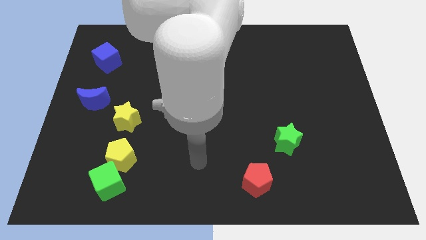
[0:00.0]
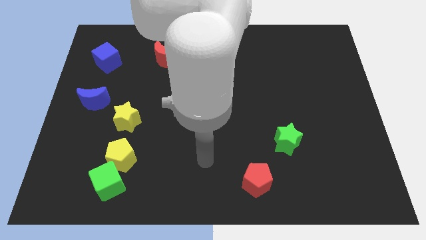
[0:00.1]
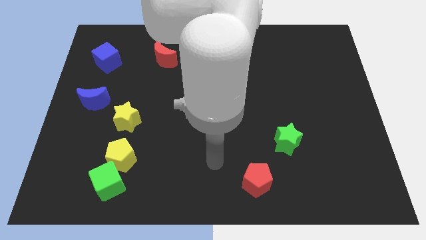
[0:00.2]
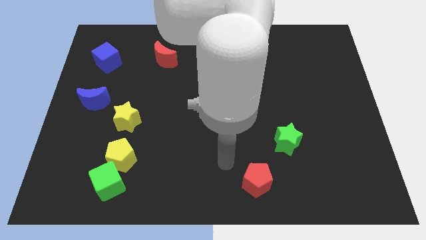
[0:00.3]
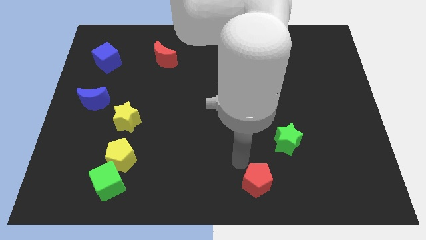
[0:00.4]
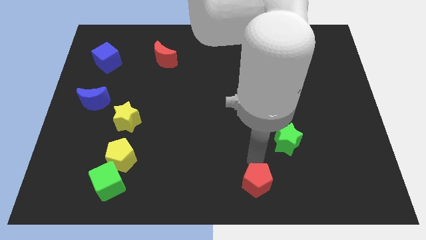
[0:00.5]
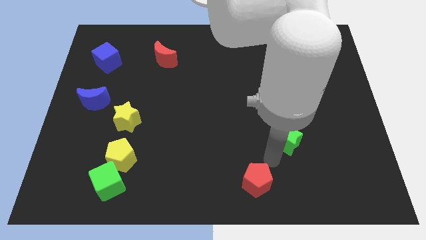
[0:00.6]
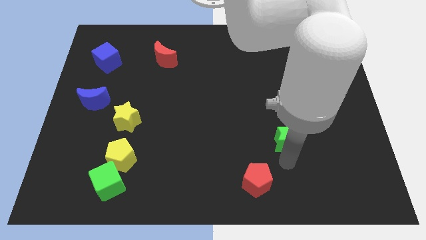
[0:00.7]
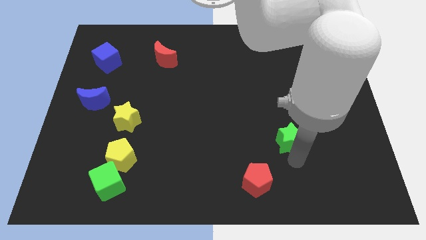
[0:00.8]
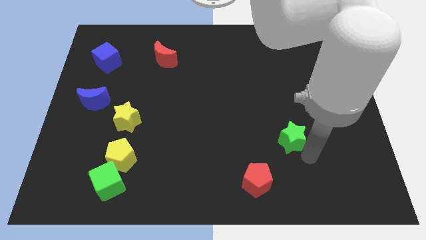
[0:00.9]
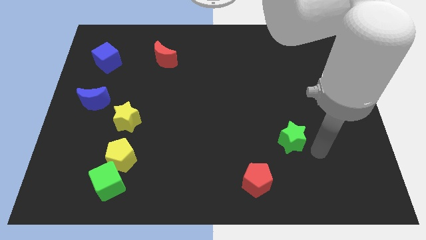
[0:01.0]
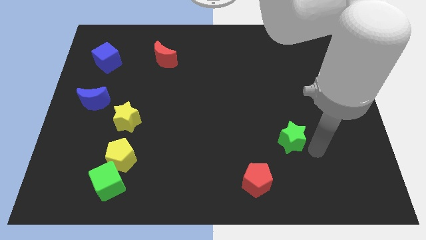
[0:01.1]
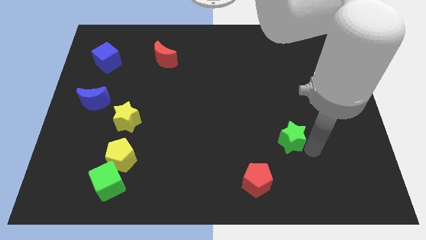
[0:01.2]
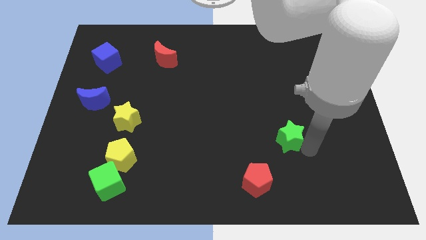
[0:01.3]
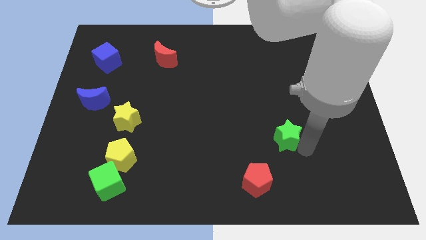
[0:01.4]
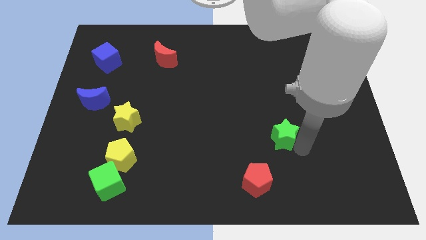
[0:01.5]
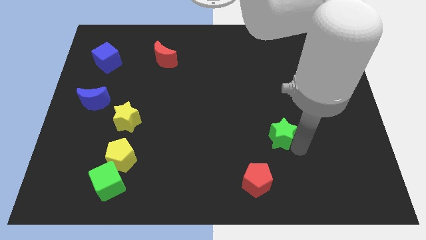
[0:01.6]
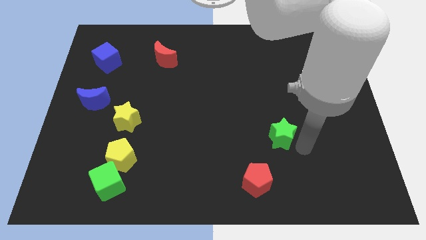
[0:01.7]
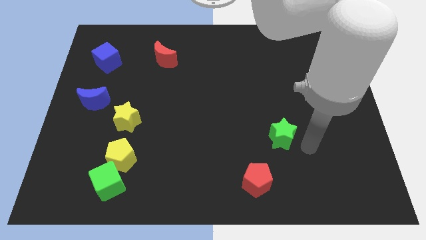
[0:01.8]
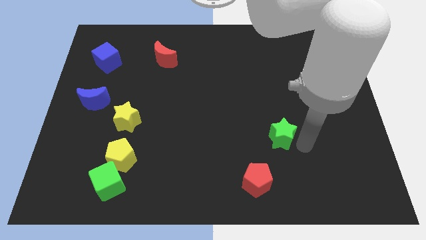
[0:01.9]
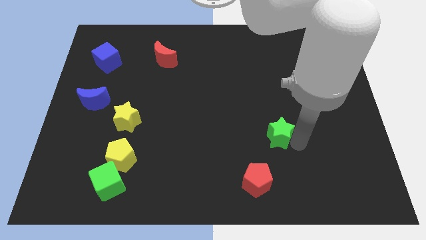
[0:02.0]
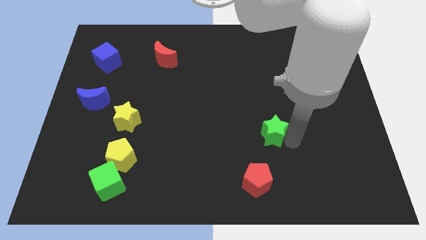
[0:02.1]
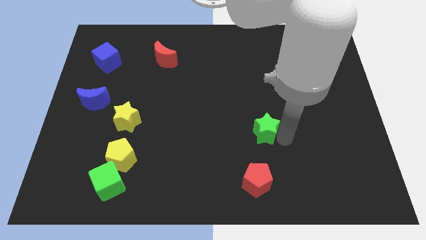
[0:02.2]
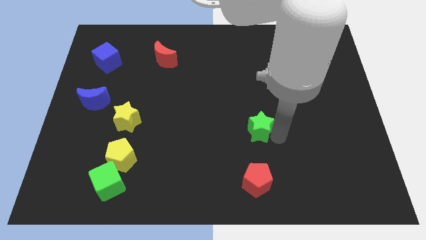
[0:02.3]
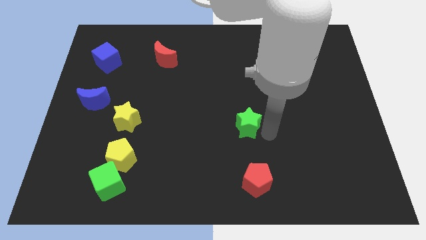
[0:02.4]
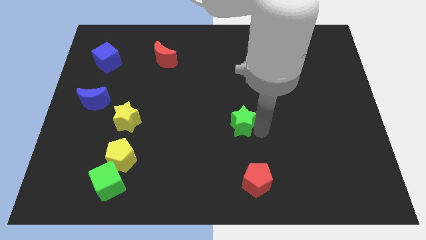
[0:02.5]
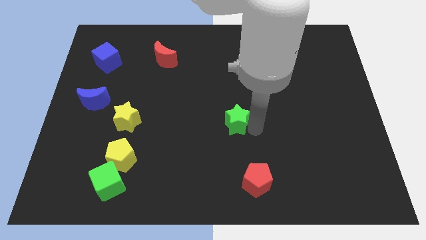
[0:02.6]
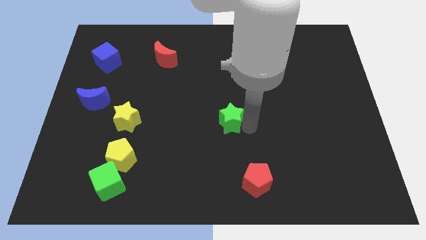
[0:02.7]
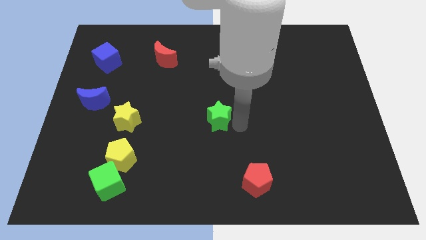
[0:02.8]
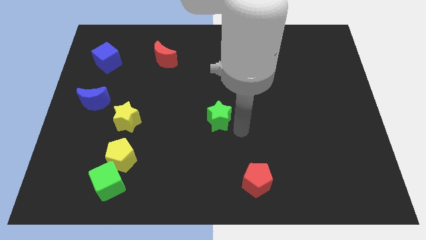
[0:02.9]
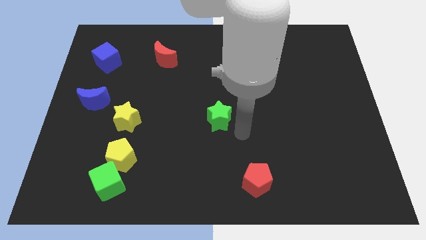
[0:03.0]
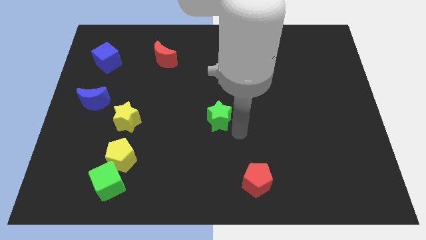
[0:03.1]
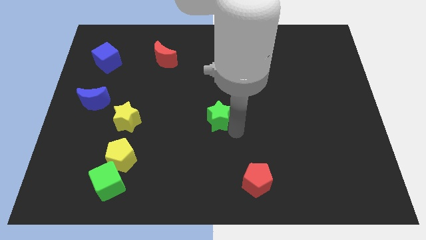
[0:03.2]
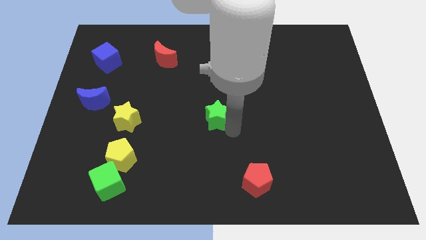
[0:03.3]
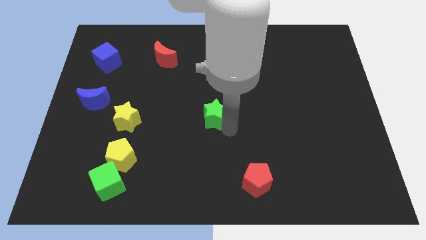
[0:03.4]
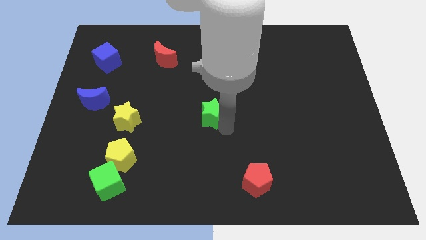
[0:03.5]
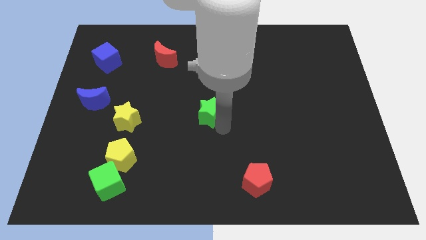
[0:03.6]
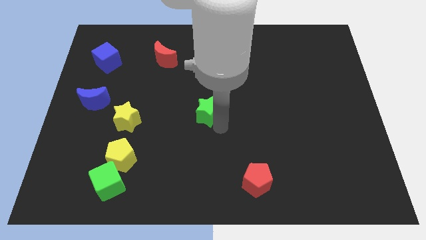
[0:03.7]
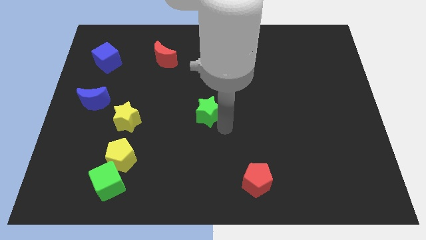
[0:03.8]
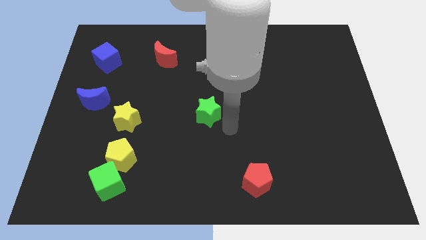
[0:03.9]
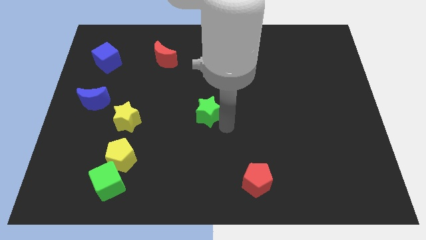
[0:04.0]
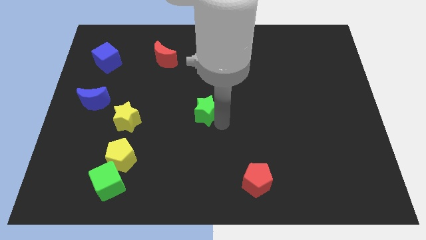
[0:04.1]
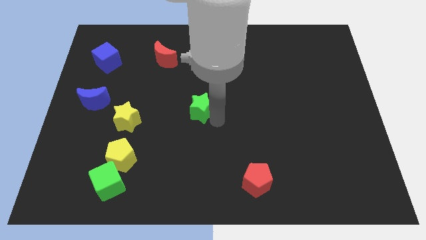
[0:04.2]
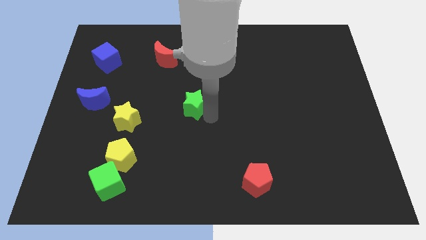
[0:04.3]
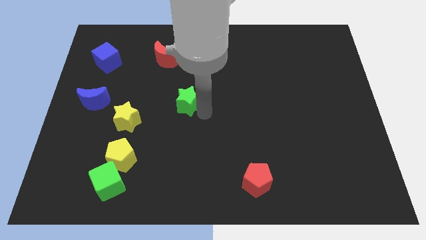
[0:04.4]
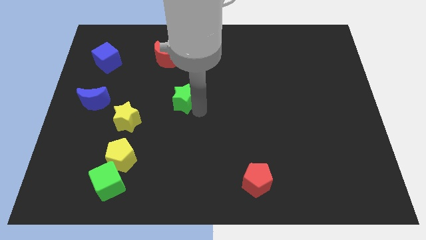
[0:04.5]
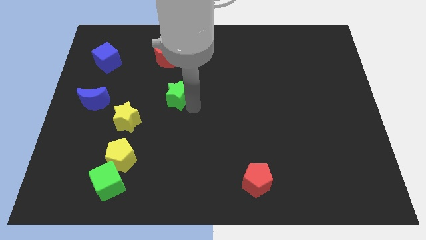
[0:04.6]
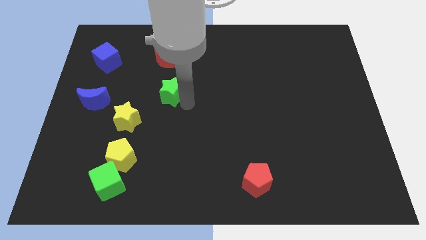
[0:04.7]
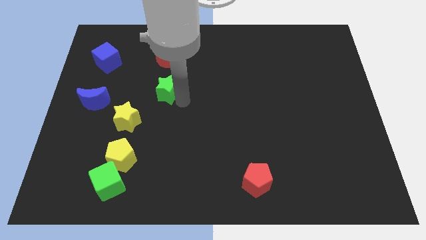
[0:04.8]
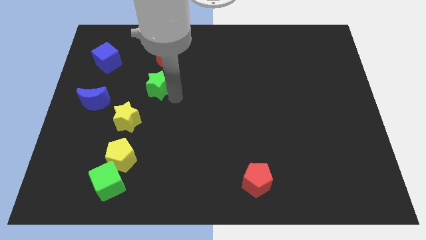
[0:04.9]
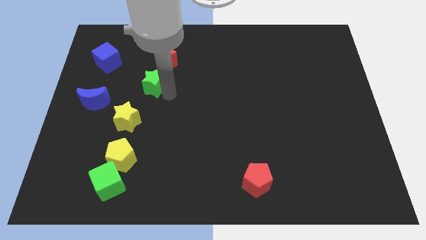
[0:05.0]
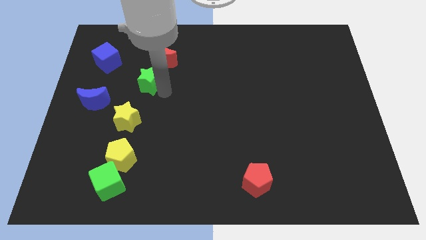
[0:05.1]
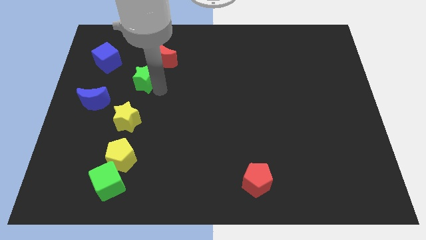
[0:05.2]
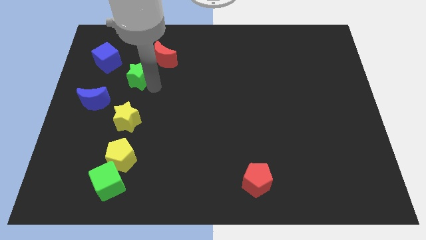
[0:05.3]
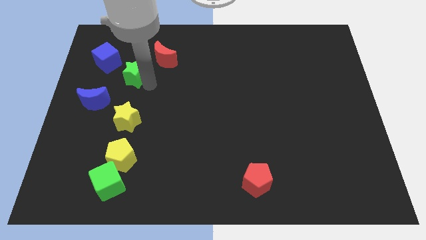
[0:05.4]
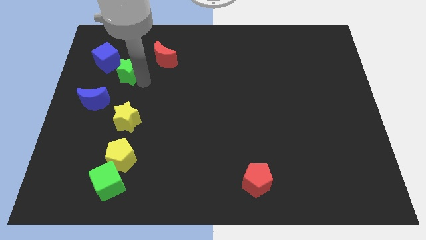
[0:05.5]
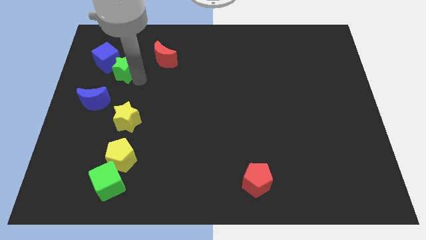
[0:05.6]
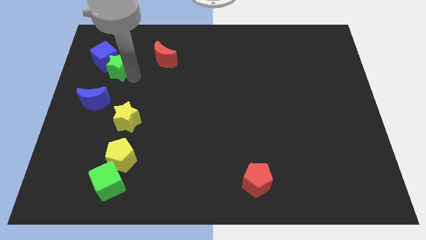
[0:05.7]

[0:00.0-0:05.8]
put the green star next to the blue cube

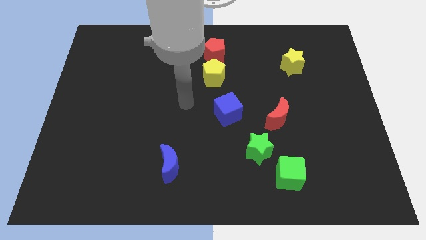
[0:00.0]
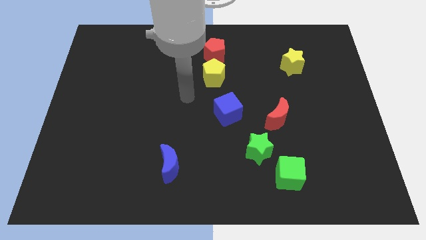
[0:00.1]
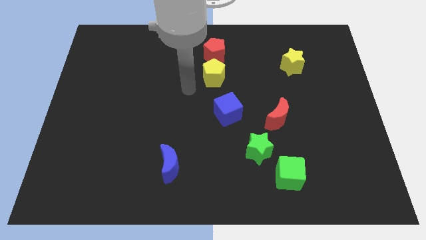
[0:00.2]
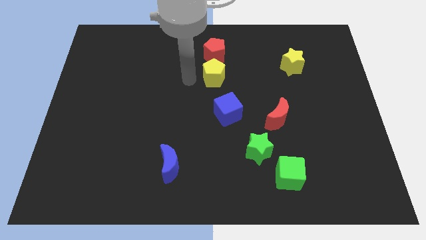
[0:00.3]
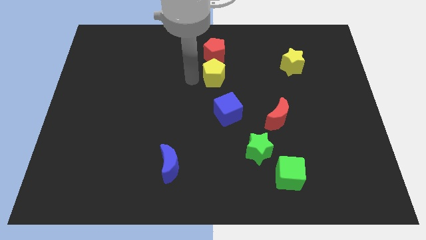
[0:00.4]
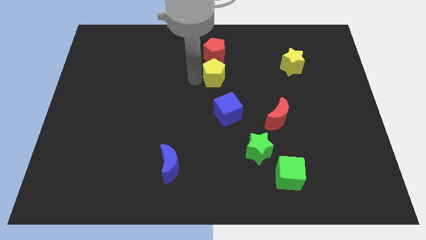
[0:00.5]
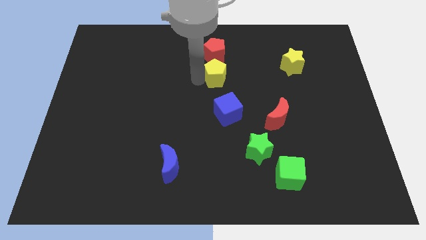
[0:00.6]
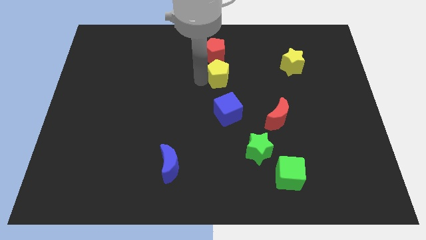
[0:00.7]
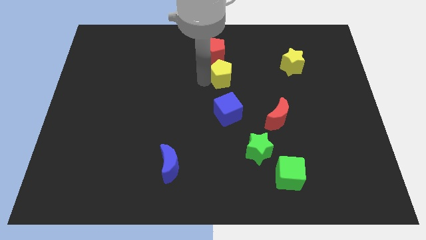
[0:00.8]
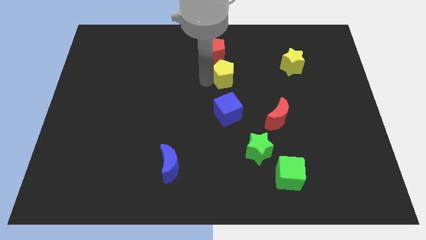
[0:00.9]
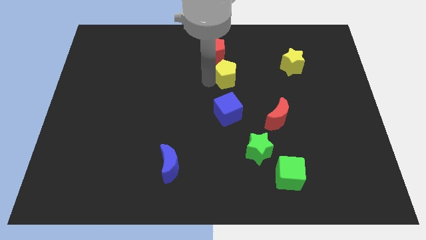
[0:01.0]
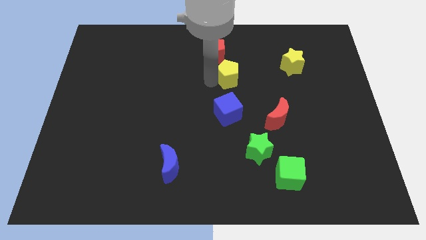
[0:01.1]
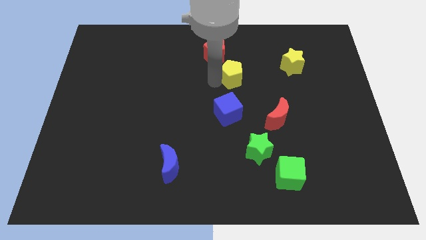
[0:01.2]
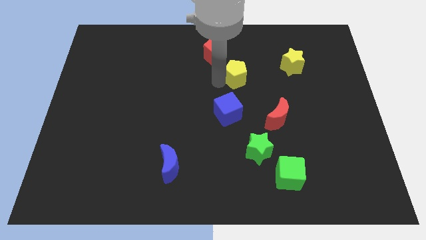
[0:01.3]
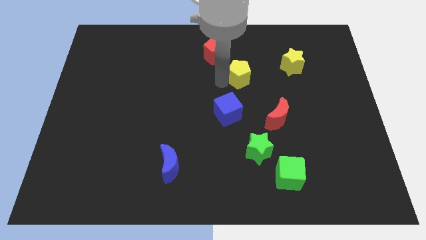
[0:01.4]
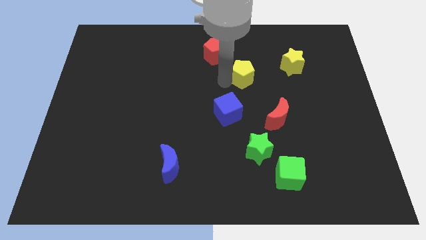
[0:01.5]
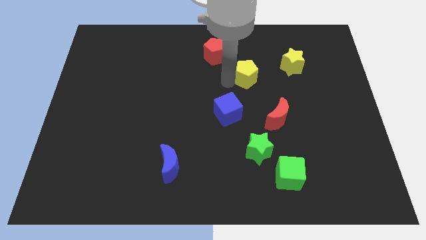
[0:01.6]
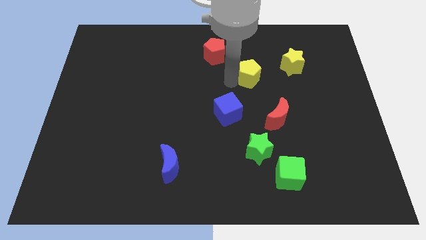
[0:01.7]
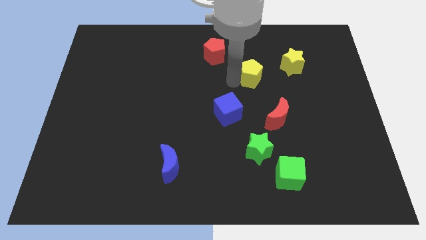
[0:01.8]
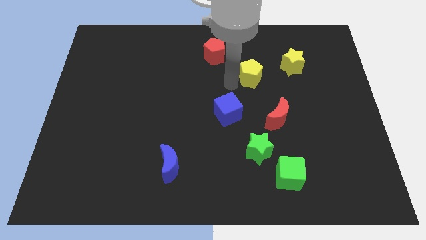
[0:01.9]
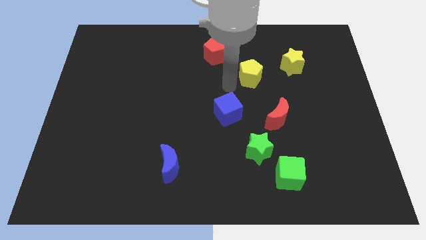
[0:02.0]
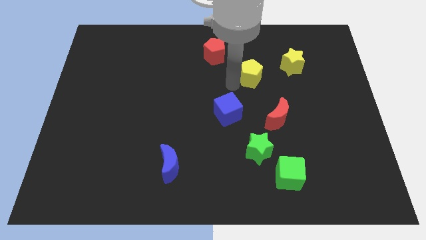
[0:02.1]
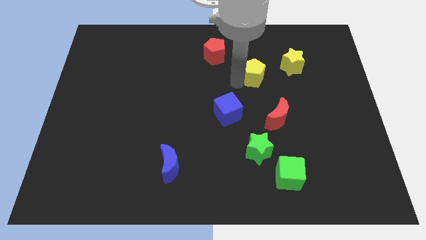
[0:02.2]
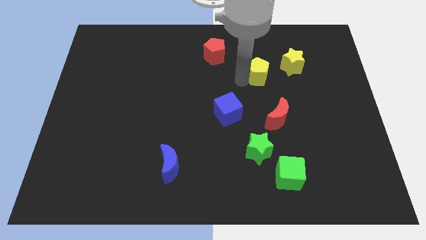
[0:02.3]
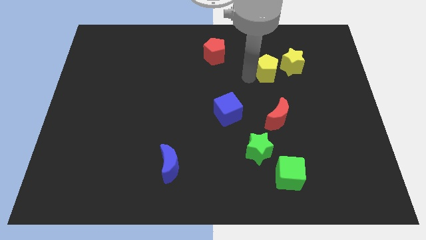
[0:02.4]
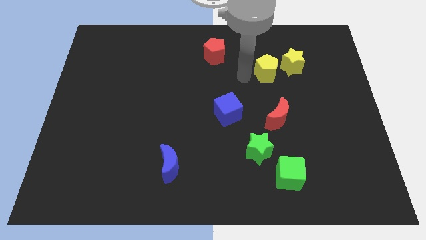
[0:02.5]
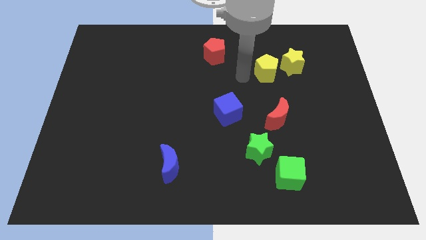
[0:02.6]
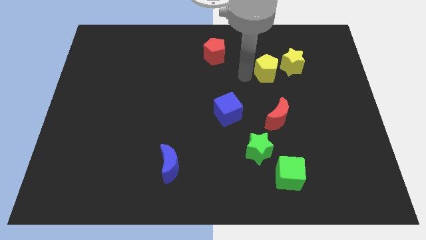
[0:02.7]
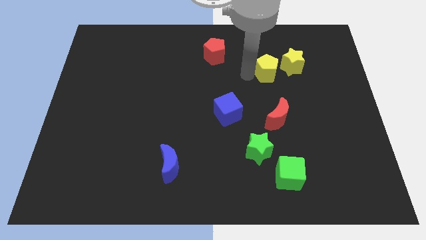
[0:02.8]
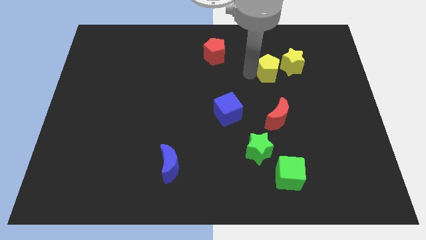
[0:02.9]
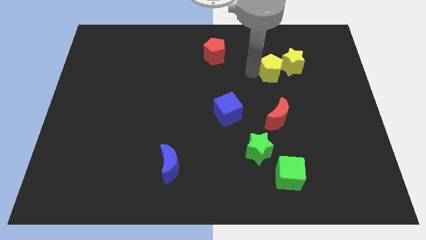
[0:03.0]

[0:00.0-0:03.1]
push the yellow pentagon close to the yellow star
